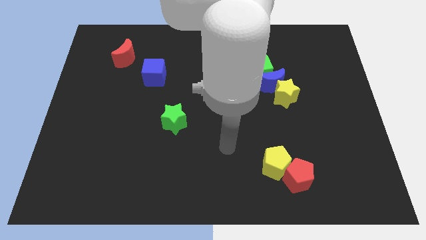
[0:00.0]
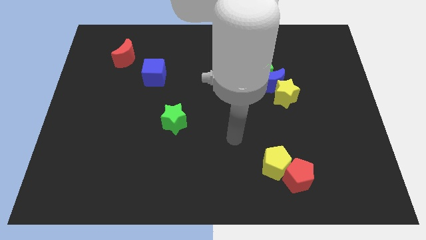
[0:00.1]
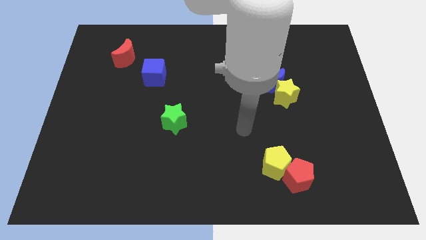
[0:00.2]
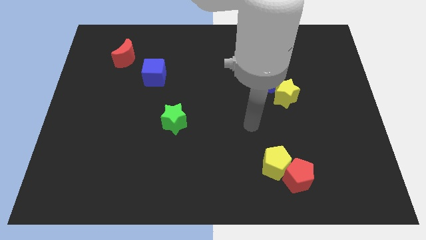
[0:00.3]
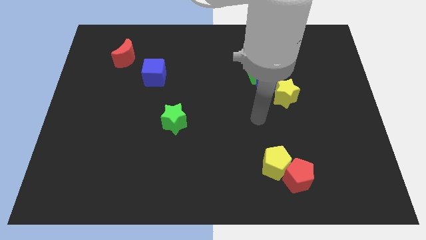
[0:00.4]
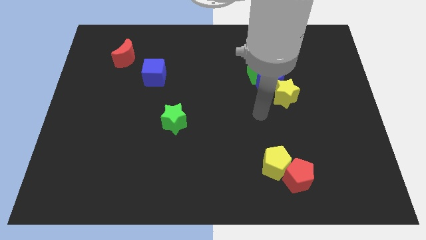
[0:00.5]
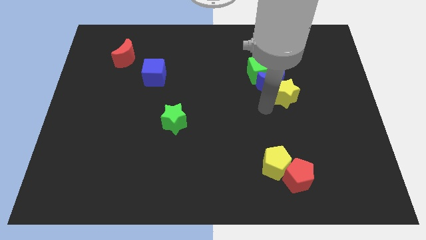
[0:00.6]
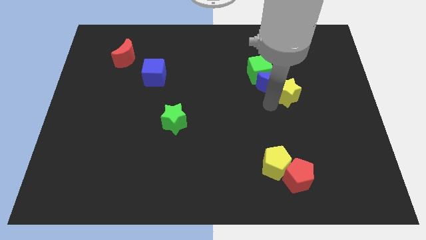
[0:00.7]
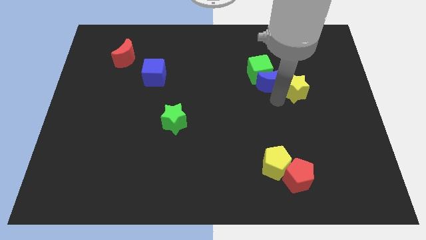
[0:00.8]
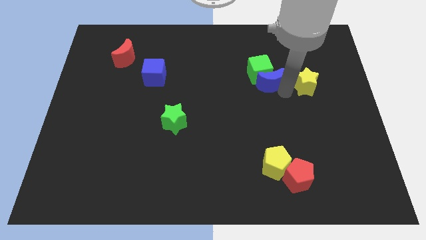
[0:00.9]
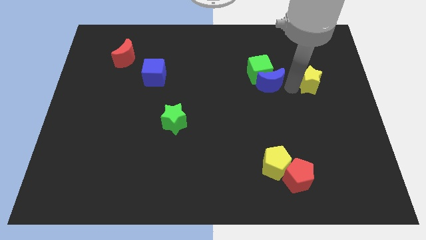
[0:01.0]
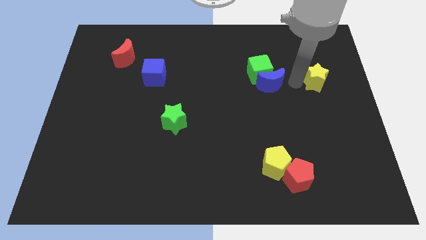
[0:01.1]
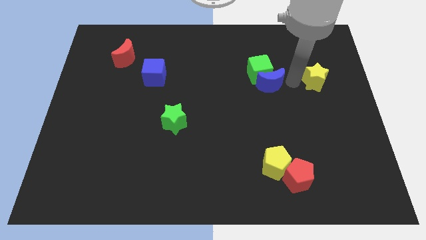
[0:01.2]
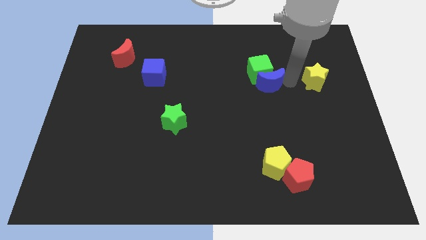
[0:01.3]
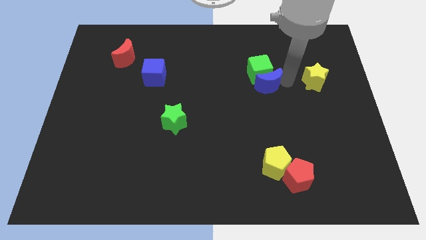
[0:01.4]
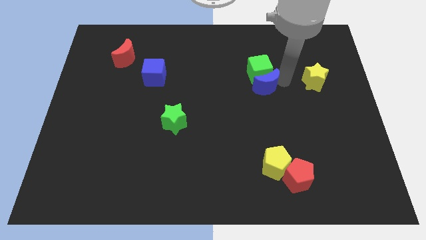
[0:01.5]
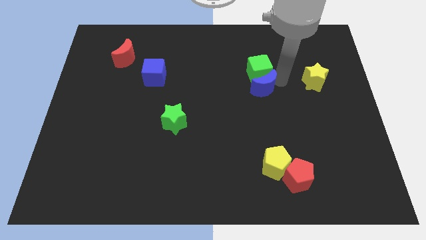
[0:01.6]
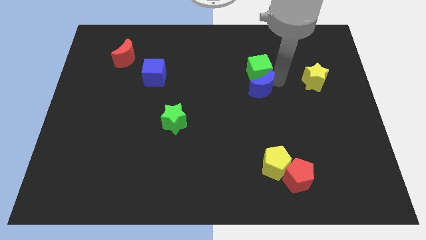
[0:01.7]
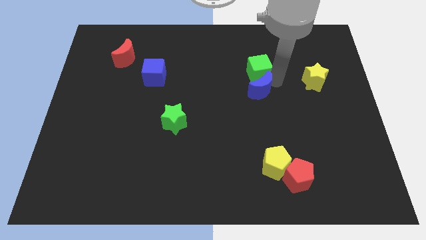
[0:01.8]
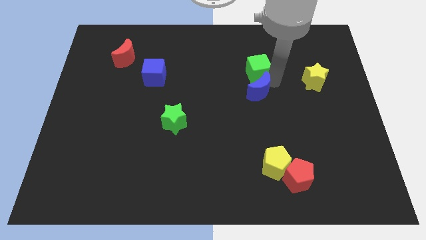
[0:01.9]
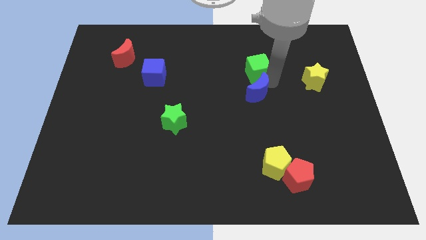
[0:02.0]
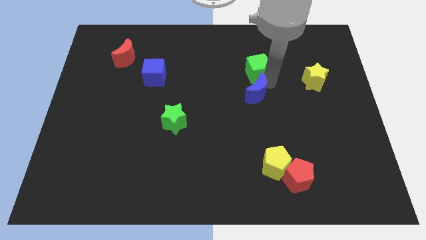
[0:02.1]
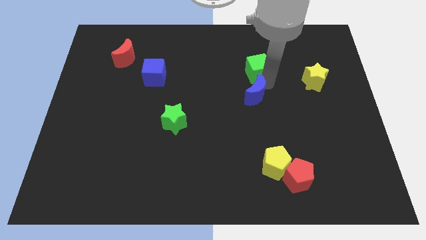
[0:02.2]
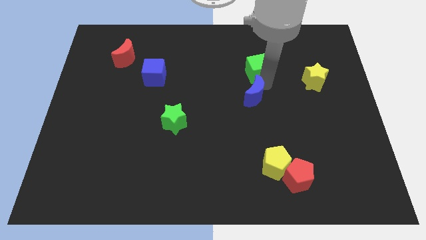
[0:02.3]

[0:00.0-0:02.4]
move the blue moon away from the green cube and yellow star

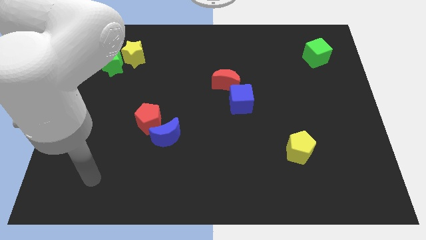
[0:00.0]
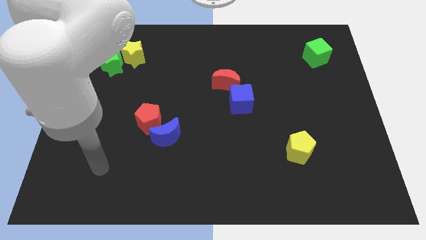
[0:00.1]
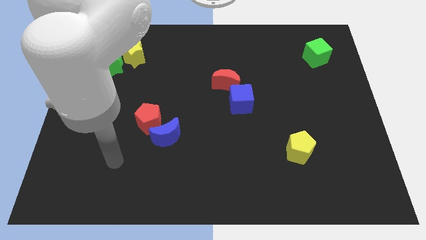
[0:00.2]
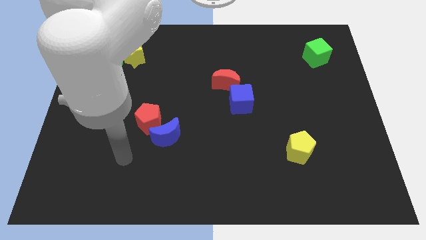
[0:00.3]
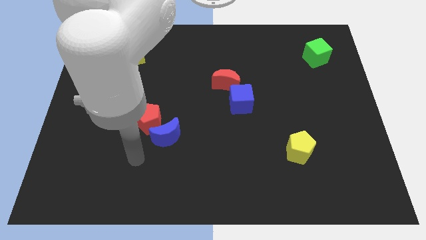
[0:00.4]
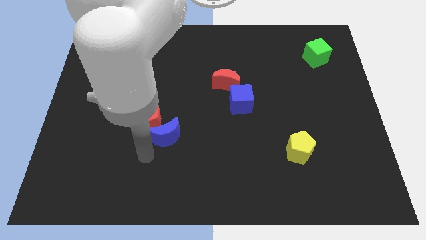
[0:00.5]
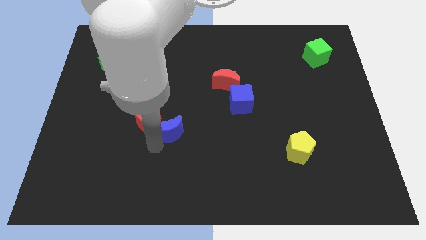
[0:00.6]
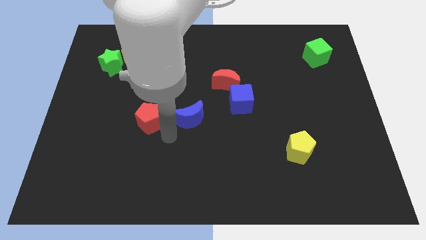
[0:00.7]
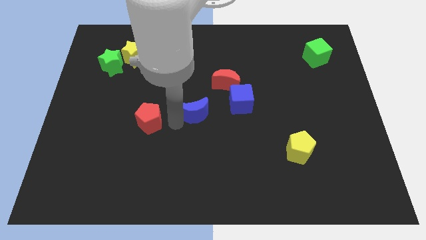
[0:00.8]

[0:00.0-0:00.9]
move the red pentagon away from the blue moon

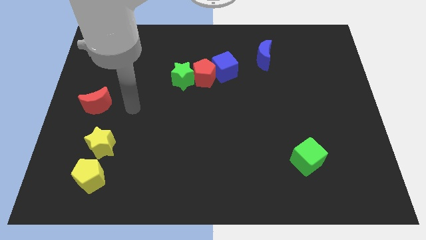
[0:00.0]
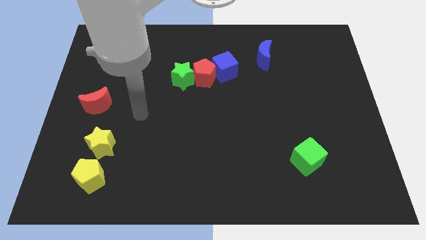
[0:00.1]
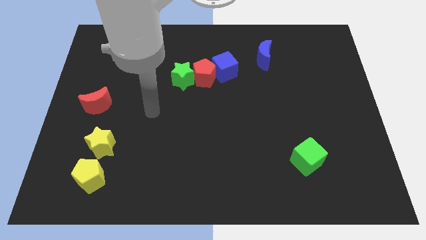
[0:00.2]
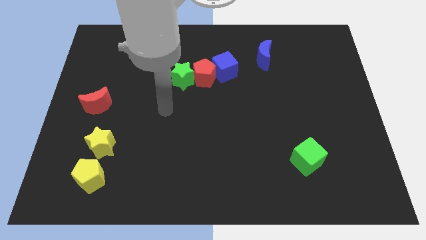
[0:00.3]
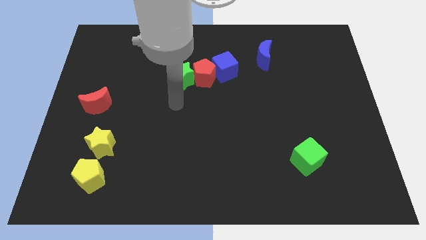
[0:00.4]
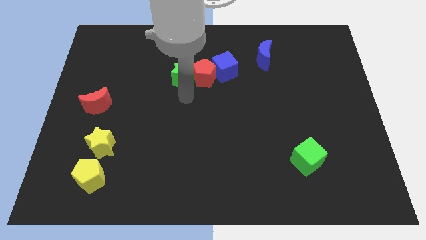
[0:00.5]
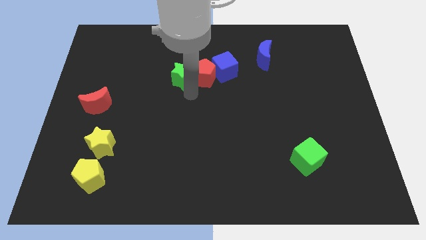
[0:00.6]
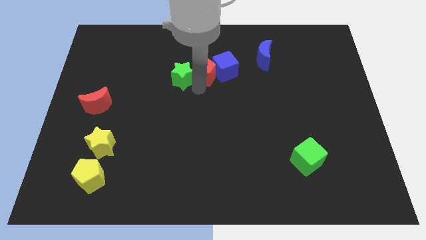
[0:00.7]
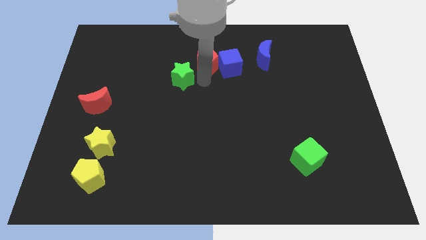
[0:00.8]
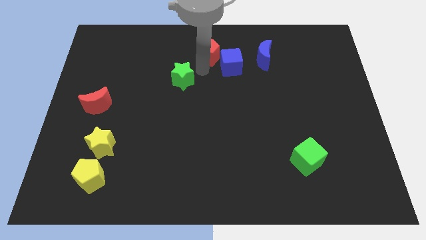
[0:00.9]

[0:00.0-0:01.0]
pull the green star apart from the red pentagon

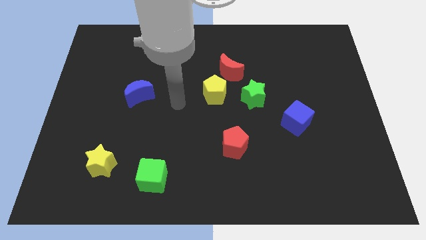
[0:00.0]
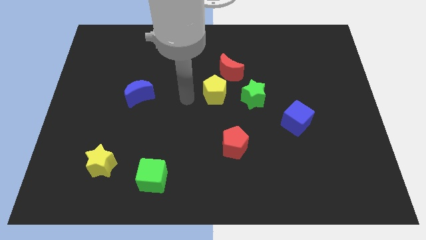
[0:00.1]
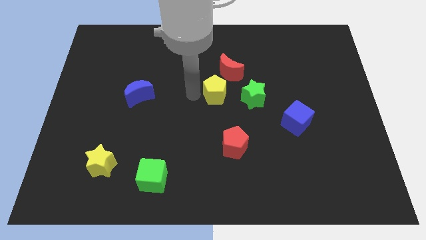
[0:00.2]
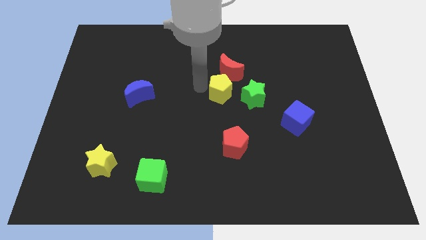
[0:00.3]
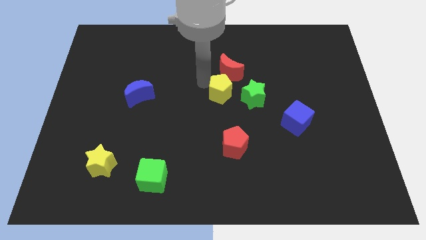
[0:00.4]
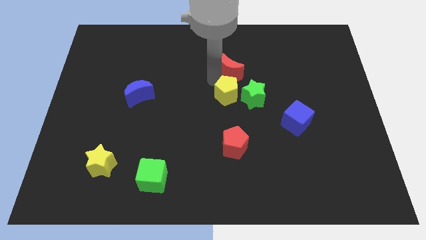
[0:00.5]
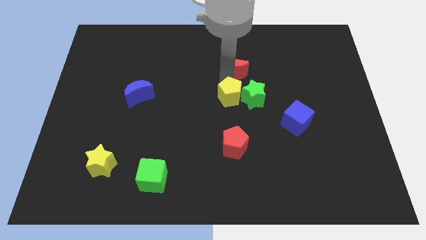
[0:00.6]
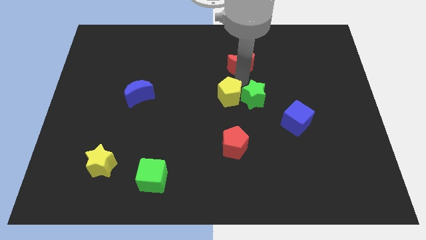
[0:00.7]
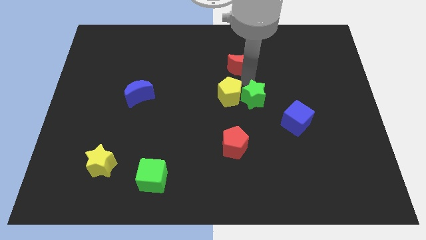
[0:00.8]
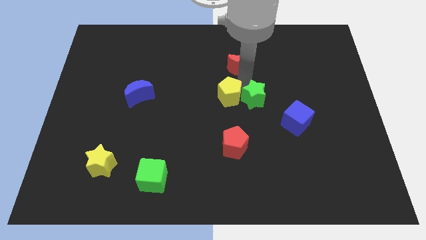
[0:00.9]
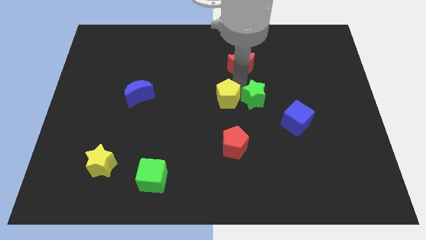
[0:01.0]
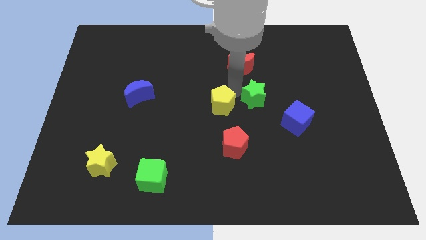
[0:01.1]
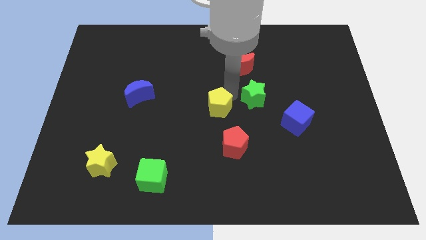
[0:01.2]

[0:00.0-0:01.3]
separate the yellow pentagon from the red moon and green star

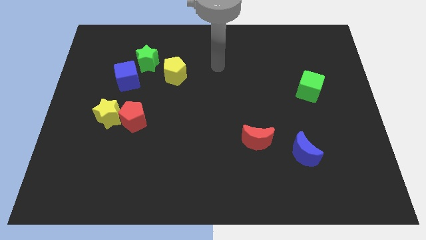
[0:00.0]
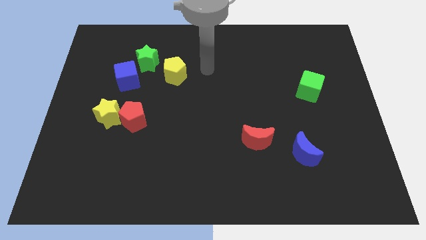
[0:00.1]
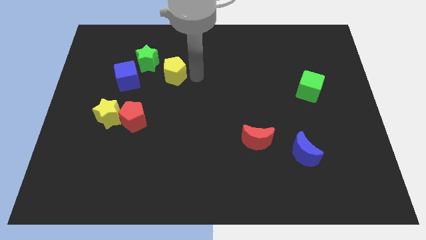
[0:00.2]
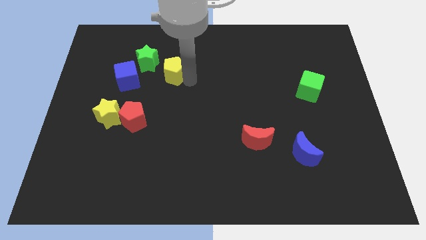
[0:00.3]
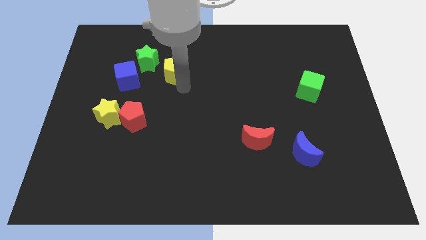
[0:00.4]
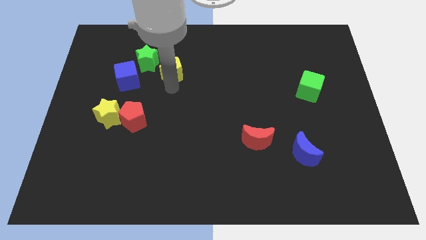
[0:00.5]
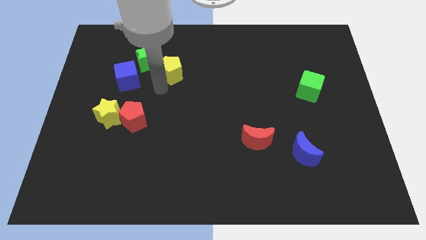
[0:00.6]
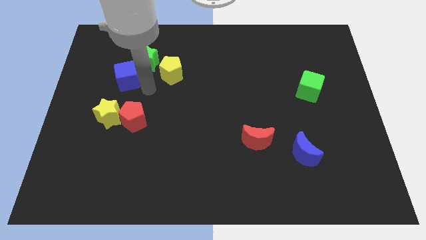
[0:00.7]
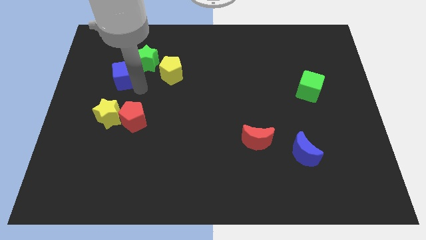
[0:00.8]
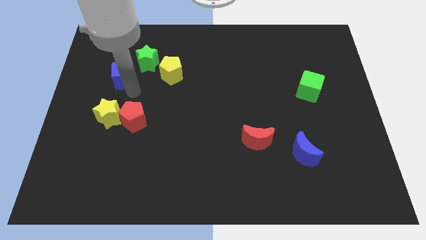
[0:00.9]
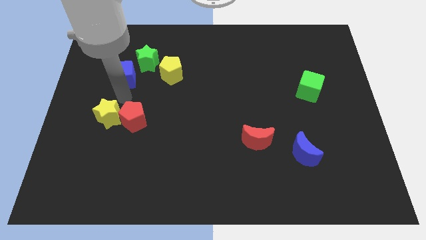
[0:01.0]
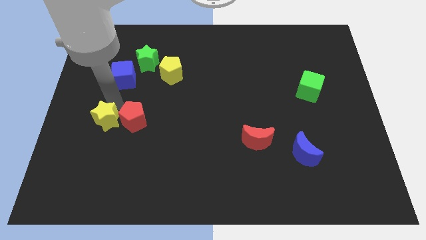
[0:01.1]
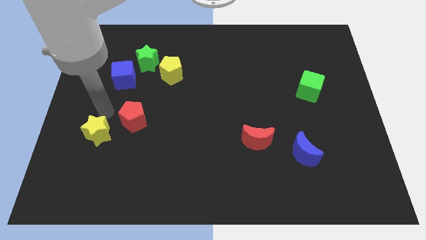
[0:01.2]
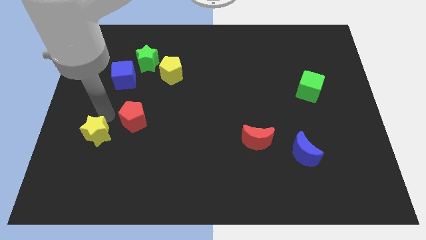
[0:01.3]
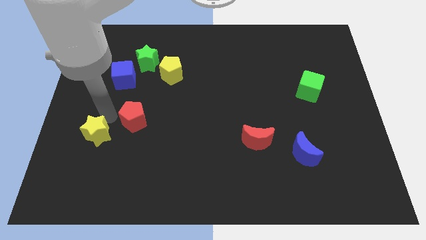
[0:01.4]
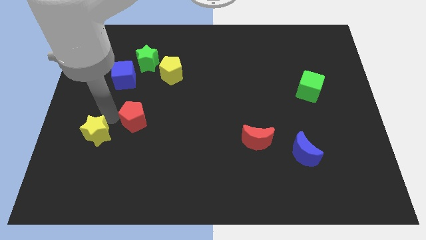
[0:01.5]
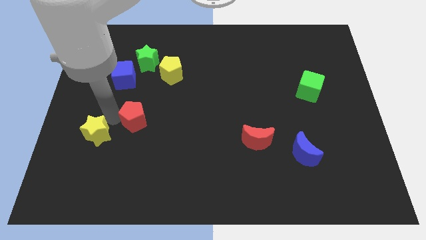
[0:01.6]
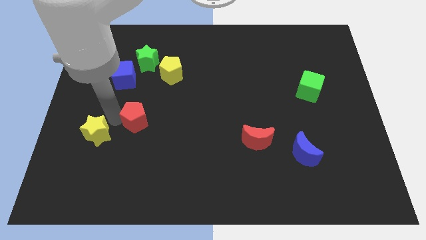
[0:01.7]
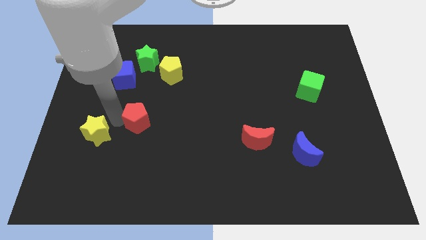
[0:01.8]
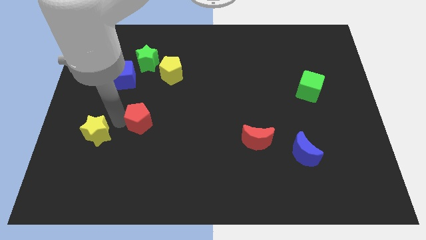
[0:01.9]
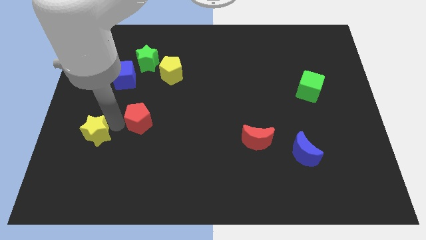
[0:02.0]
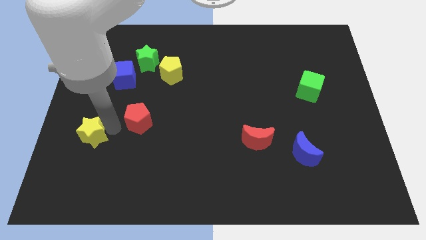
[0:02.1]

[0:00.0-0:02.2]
pull the red pentagon apart from the yellow star

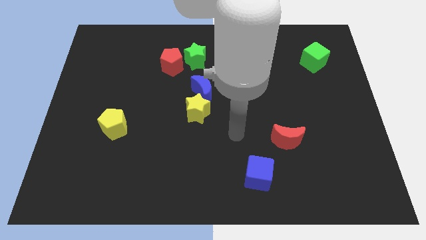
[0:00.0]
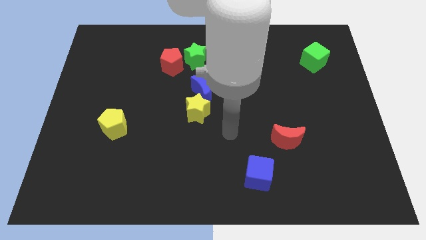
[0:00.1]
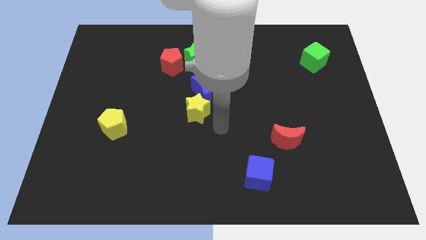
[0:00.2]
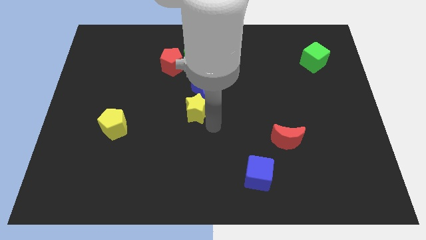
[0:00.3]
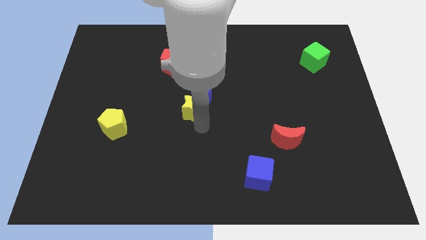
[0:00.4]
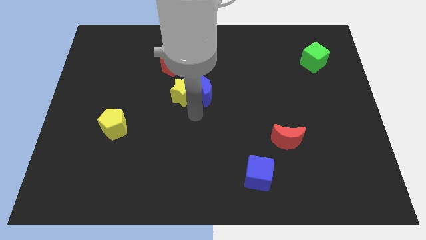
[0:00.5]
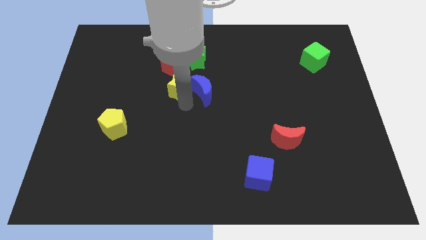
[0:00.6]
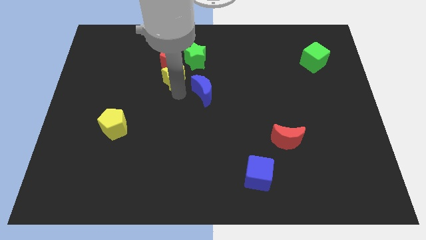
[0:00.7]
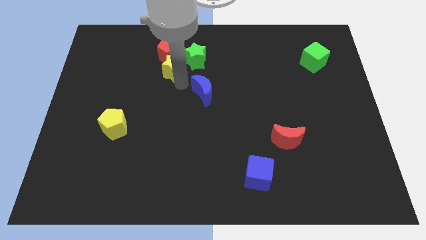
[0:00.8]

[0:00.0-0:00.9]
move the blue moon away from the yellow star

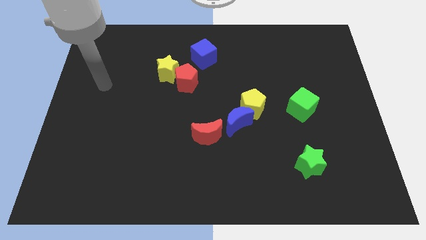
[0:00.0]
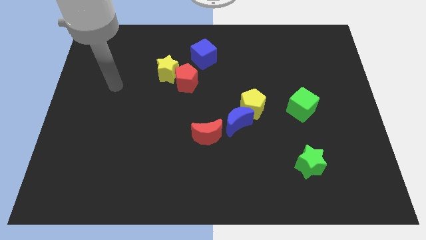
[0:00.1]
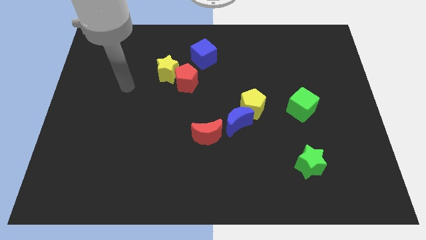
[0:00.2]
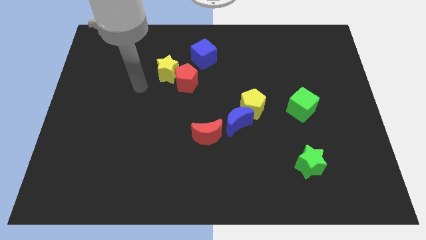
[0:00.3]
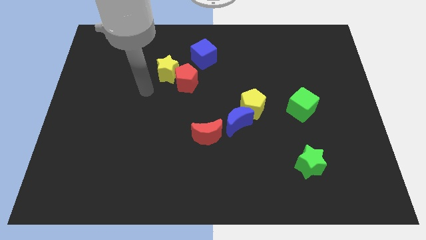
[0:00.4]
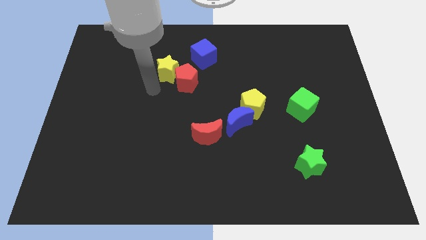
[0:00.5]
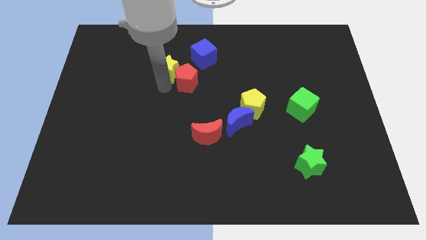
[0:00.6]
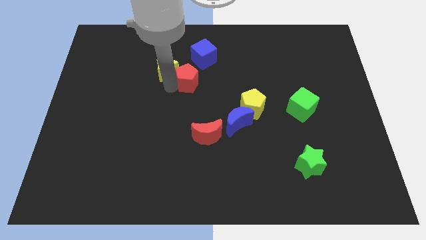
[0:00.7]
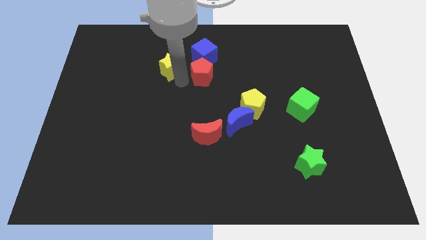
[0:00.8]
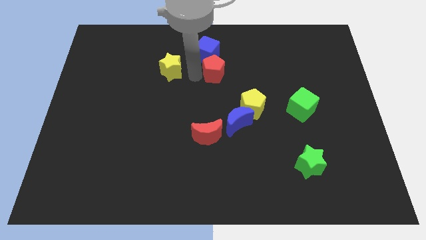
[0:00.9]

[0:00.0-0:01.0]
pull the yellow star apart from the red pentagon
